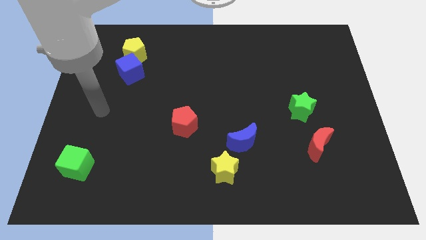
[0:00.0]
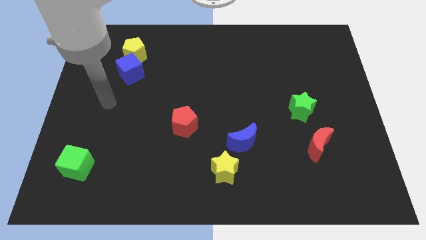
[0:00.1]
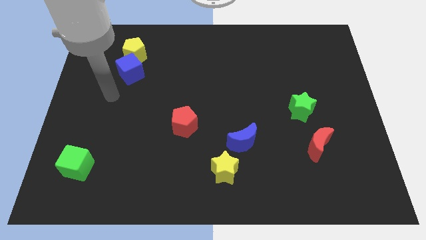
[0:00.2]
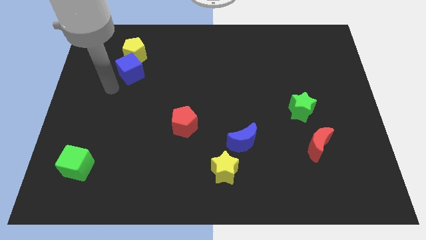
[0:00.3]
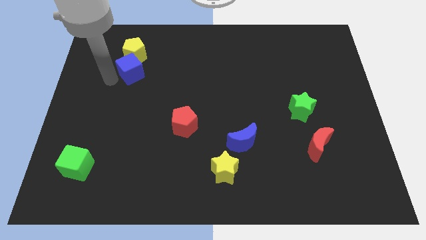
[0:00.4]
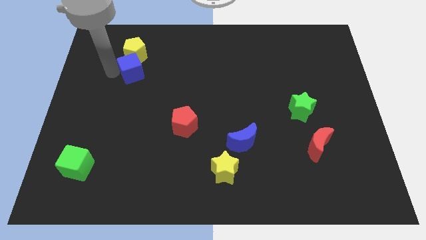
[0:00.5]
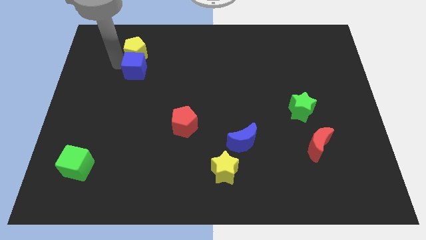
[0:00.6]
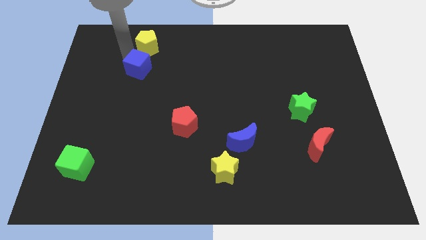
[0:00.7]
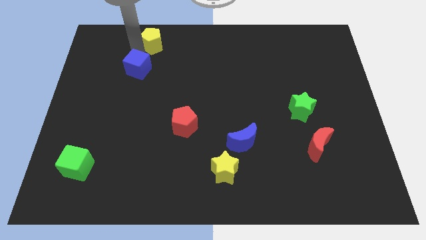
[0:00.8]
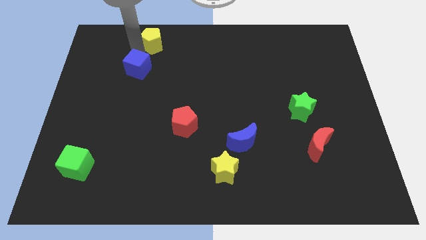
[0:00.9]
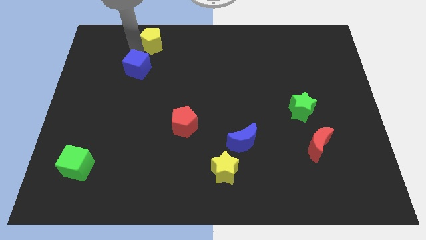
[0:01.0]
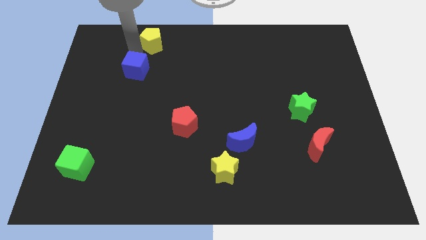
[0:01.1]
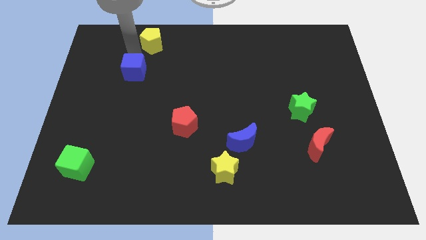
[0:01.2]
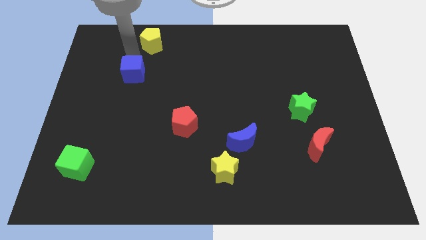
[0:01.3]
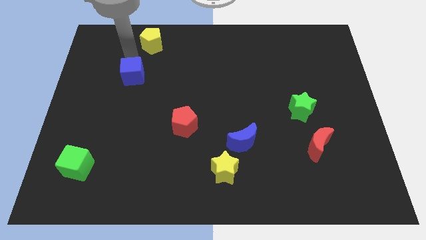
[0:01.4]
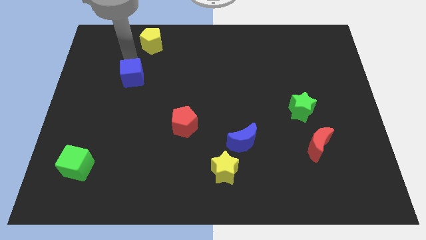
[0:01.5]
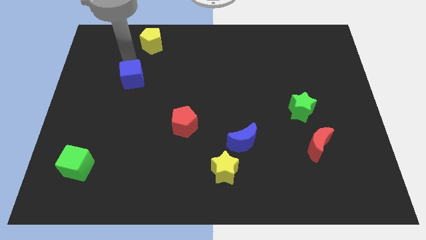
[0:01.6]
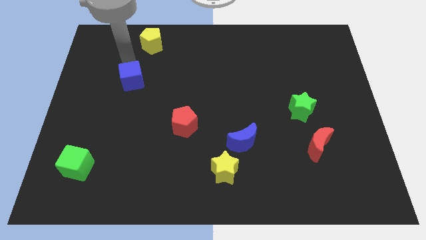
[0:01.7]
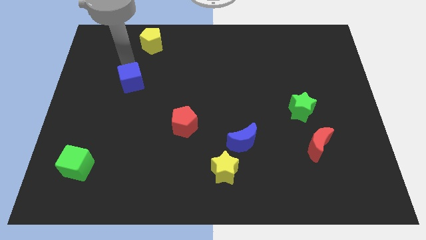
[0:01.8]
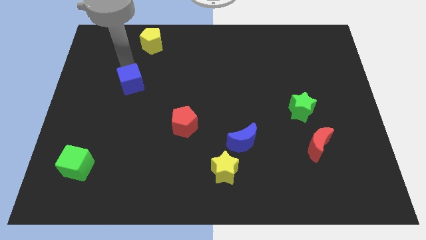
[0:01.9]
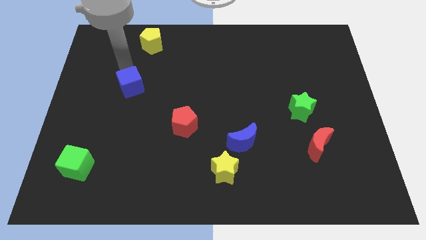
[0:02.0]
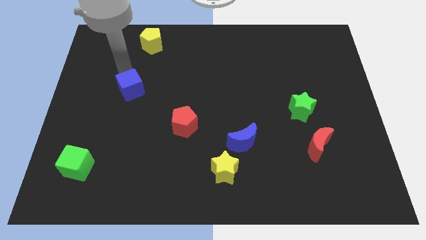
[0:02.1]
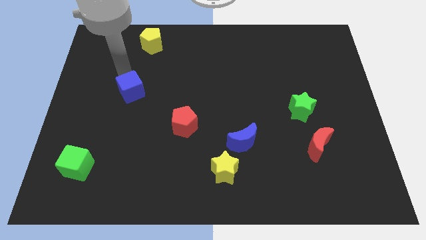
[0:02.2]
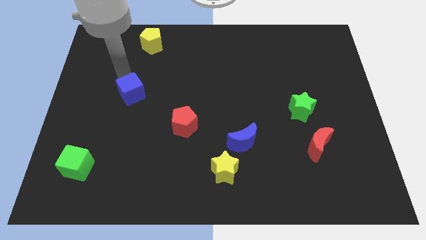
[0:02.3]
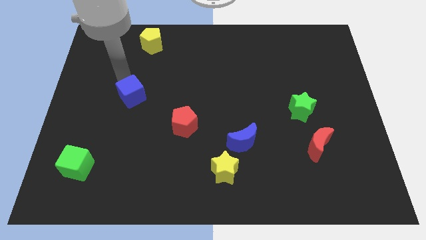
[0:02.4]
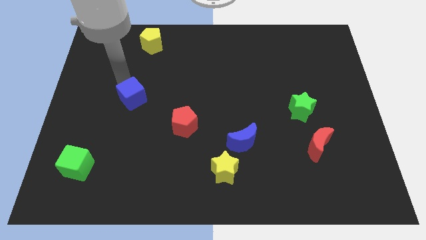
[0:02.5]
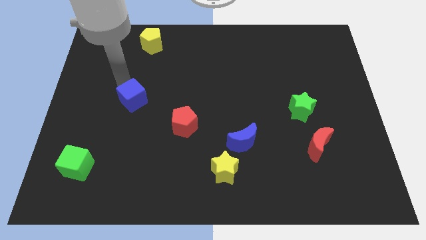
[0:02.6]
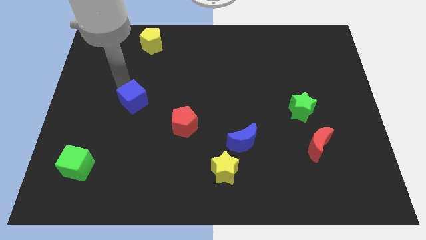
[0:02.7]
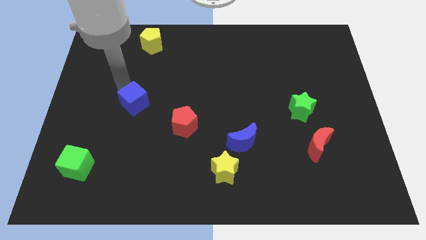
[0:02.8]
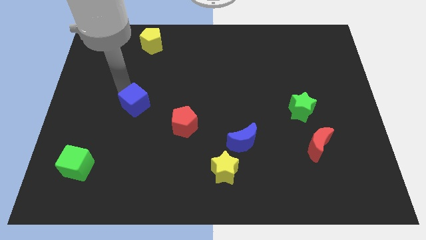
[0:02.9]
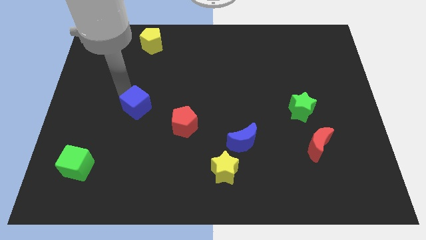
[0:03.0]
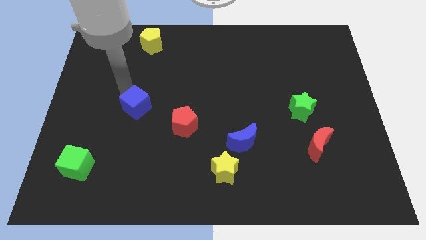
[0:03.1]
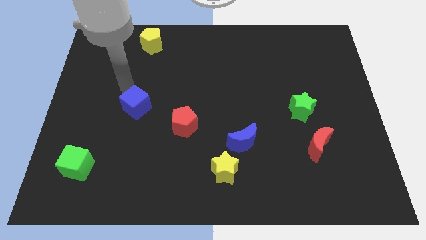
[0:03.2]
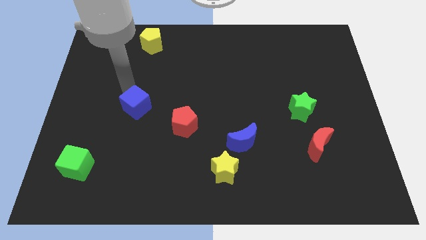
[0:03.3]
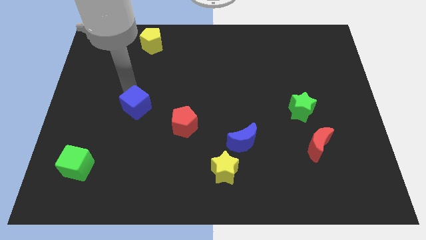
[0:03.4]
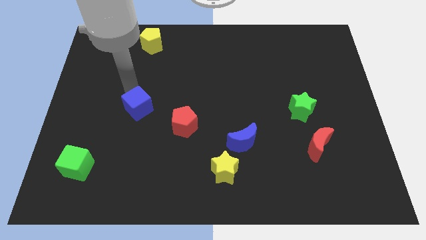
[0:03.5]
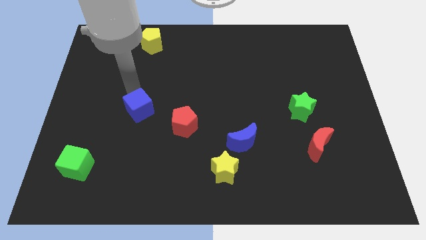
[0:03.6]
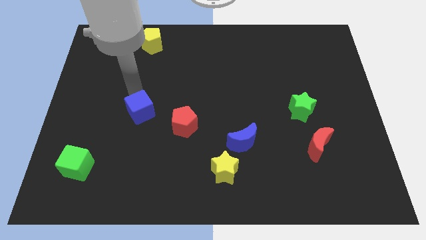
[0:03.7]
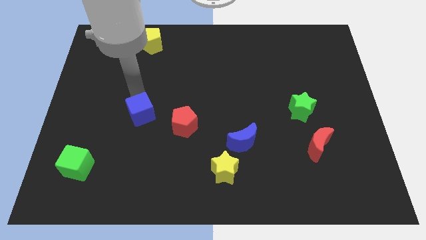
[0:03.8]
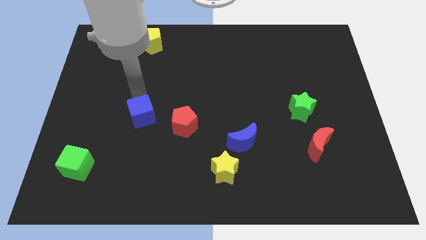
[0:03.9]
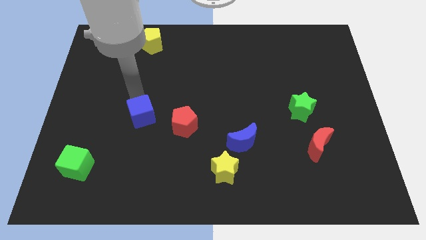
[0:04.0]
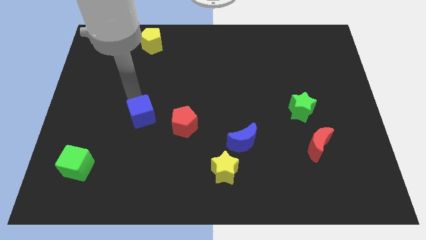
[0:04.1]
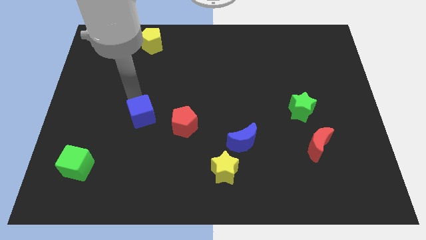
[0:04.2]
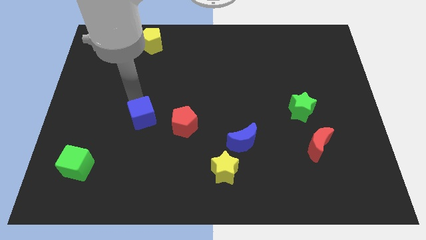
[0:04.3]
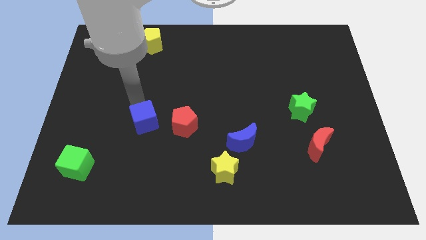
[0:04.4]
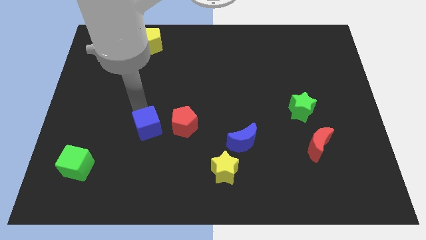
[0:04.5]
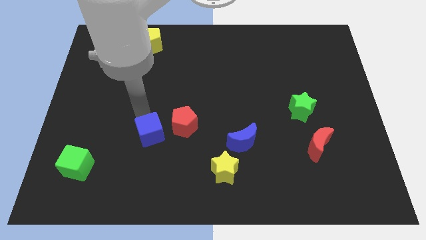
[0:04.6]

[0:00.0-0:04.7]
move the blue cube to the bottom left of the red pentagon

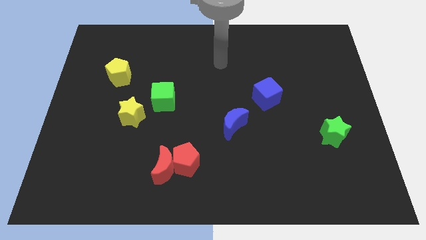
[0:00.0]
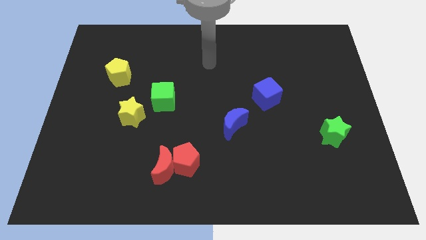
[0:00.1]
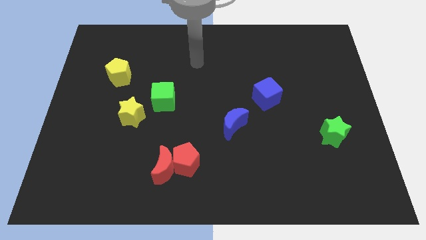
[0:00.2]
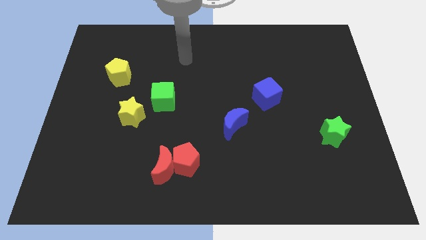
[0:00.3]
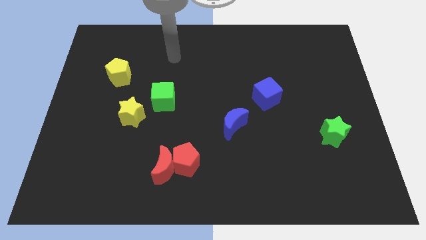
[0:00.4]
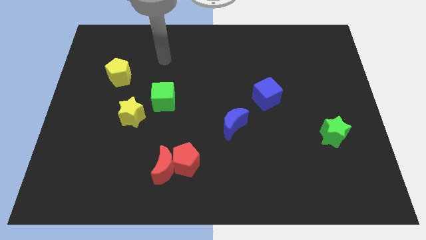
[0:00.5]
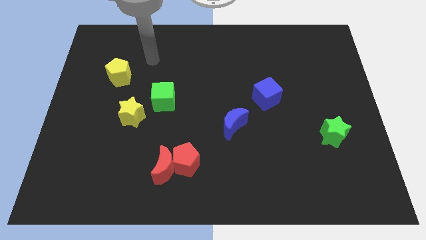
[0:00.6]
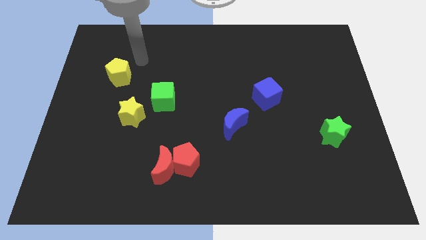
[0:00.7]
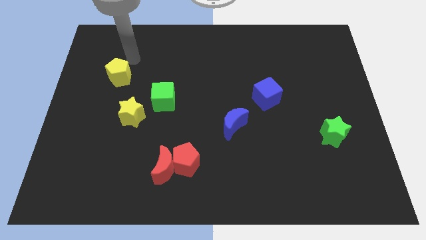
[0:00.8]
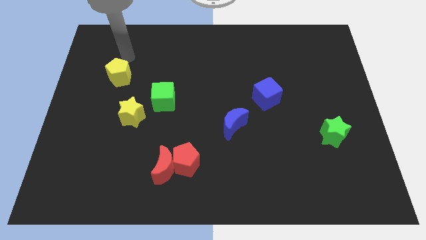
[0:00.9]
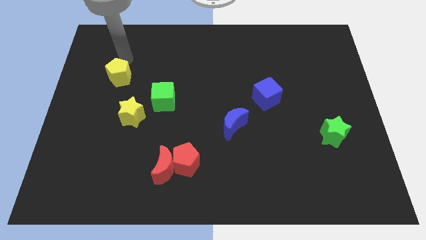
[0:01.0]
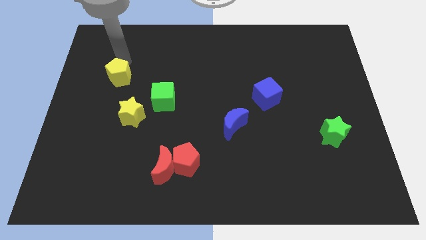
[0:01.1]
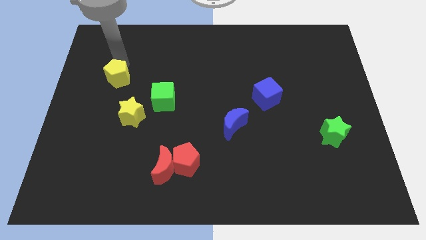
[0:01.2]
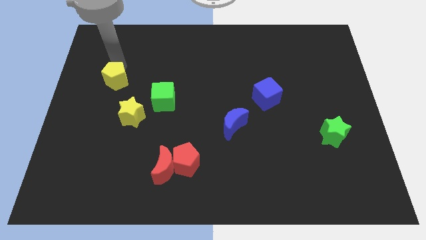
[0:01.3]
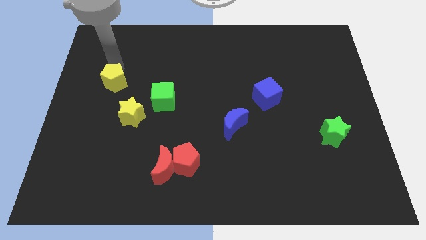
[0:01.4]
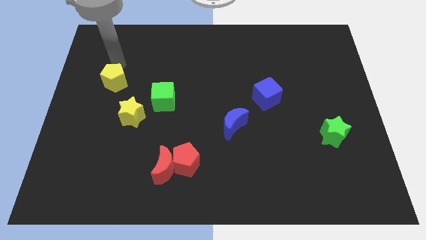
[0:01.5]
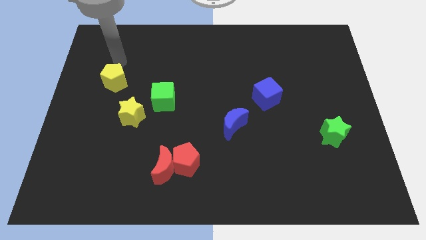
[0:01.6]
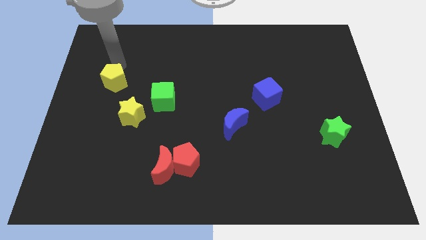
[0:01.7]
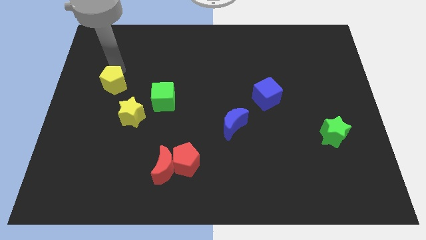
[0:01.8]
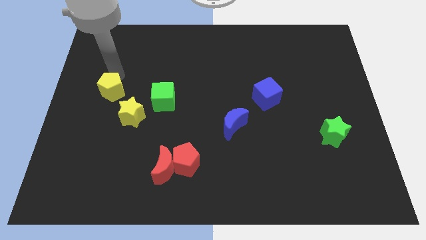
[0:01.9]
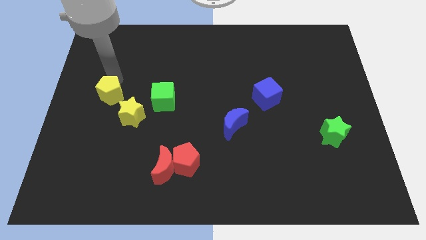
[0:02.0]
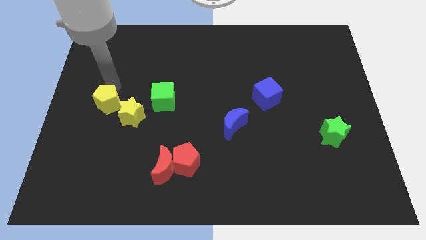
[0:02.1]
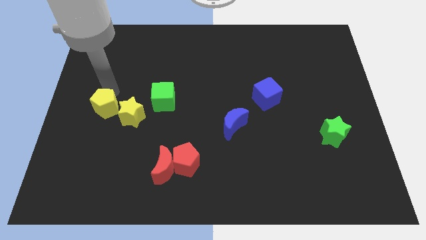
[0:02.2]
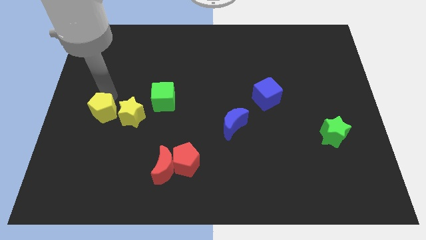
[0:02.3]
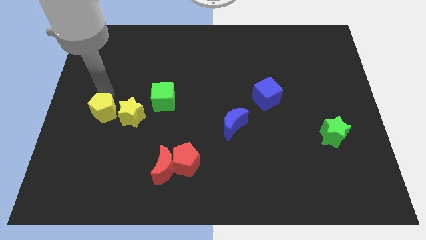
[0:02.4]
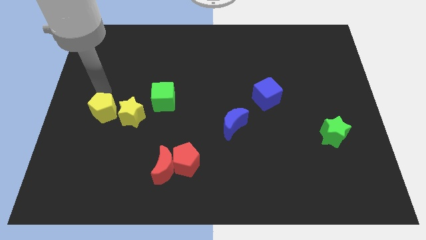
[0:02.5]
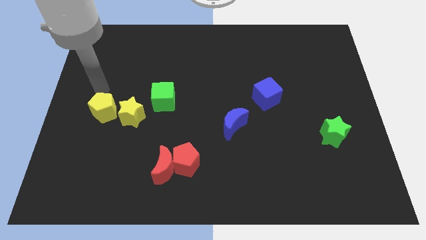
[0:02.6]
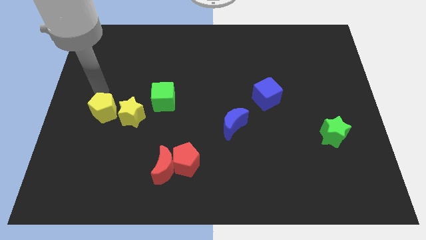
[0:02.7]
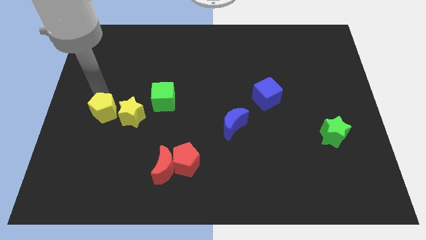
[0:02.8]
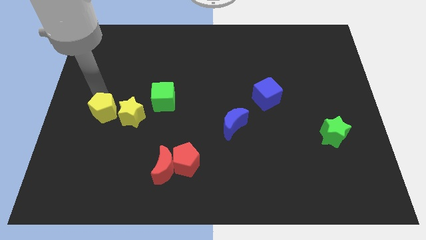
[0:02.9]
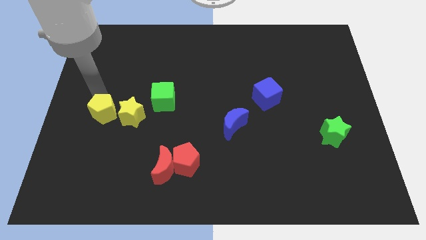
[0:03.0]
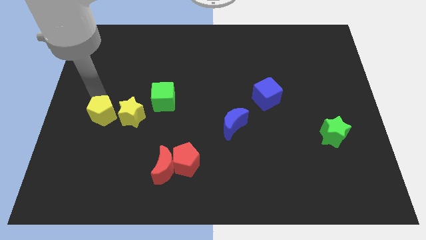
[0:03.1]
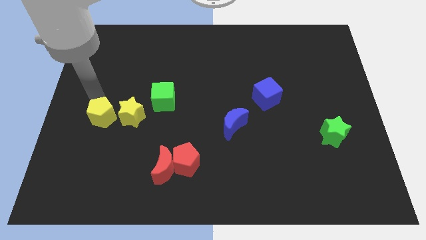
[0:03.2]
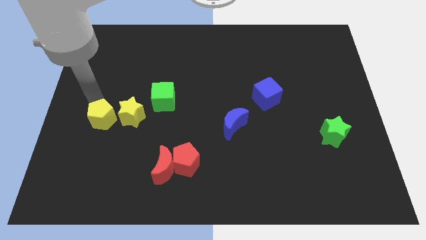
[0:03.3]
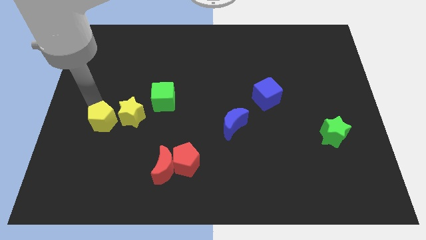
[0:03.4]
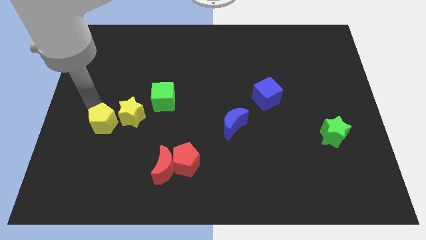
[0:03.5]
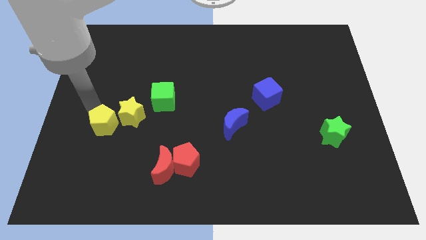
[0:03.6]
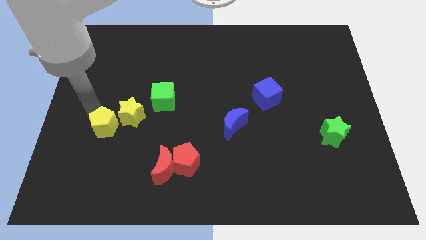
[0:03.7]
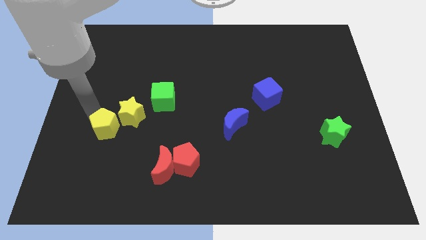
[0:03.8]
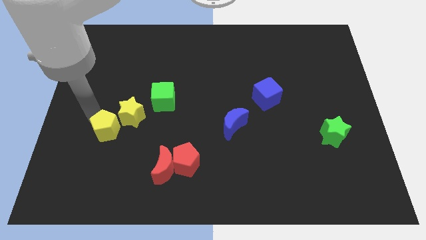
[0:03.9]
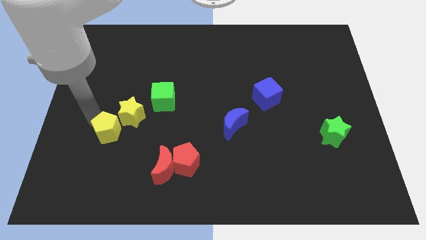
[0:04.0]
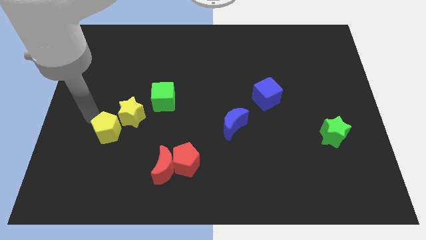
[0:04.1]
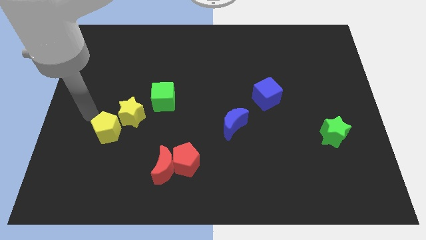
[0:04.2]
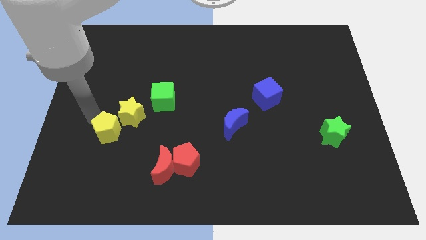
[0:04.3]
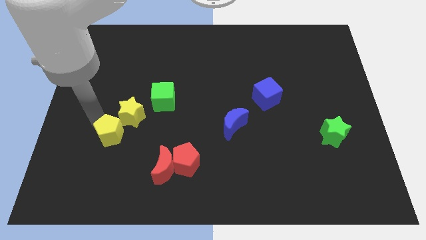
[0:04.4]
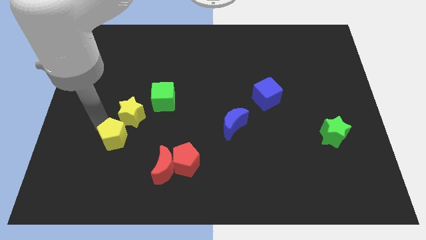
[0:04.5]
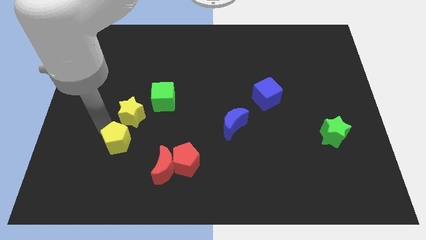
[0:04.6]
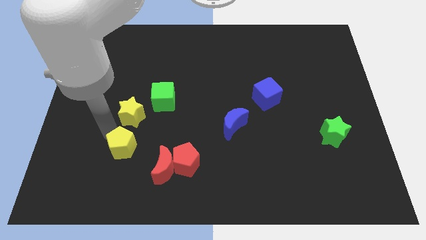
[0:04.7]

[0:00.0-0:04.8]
push the yellow pentagon to the left of the red pentagon
